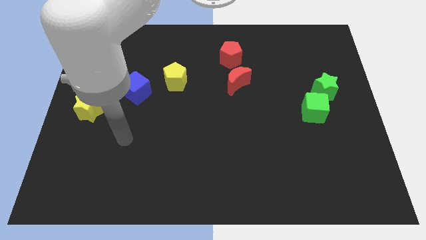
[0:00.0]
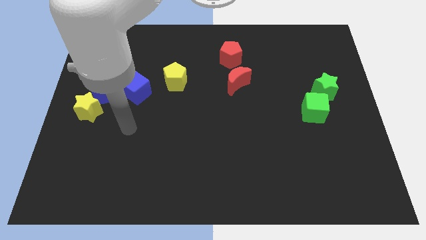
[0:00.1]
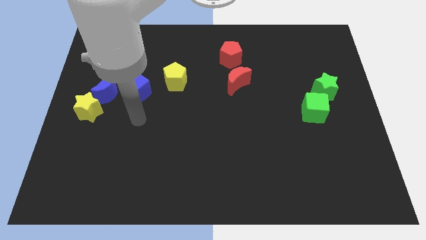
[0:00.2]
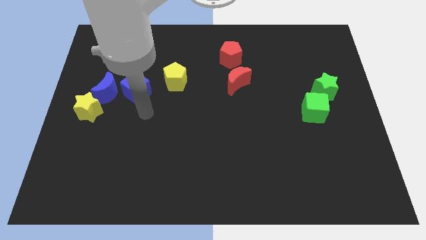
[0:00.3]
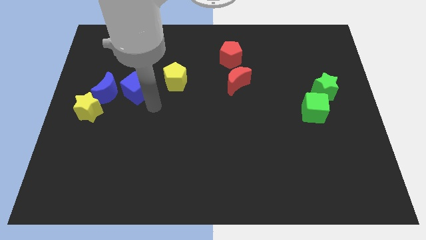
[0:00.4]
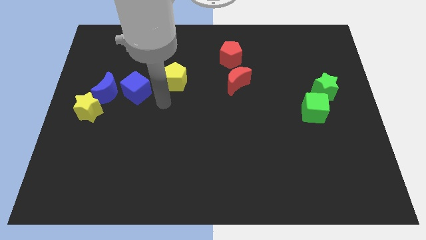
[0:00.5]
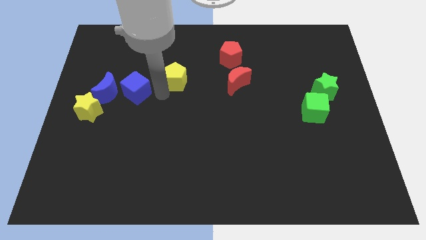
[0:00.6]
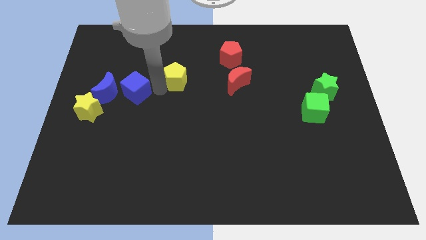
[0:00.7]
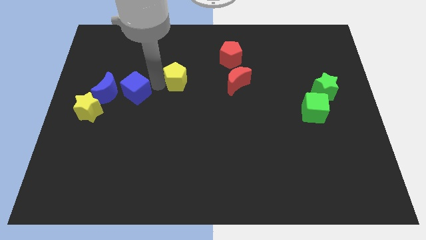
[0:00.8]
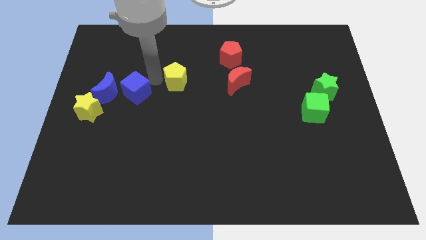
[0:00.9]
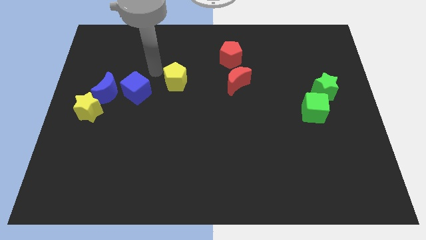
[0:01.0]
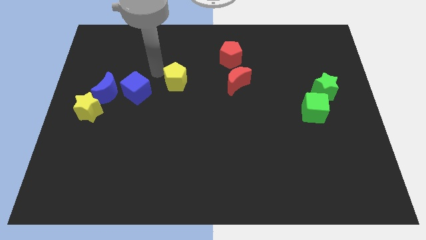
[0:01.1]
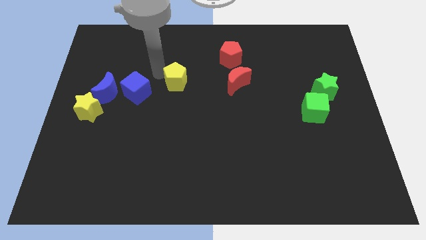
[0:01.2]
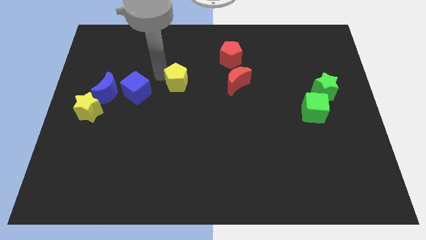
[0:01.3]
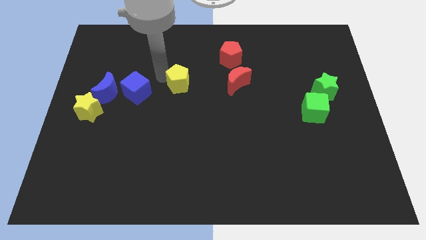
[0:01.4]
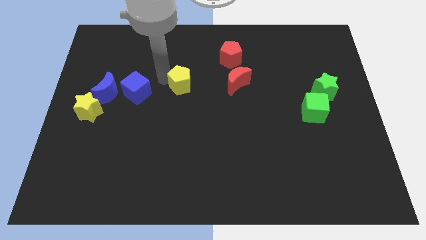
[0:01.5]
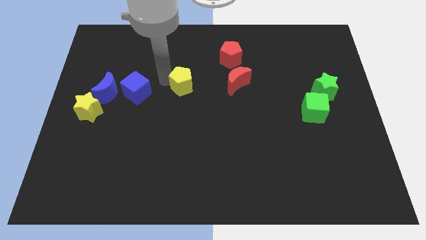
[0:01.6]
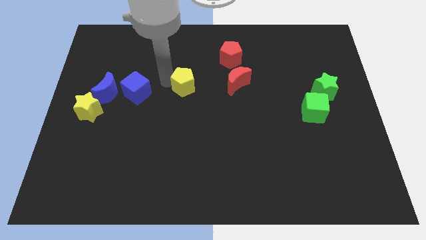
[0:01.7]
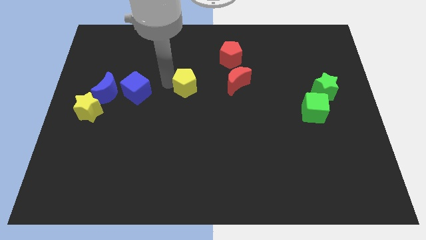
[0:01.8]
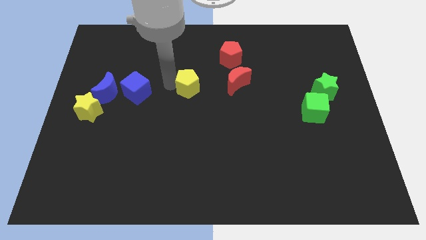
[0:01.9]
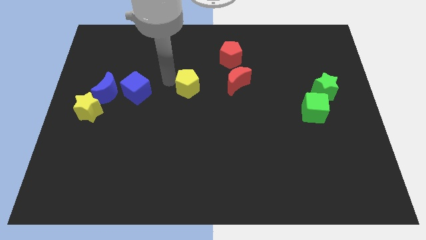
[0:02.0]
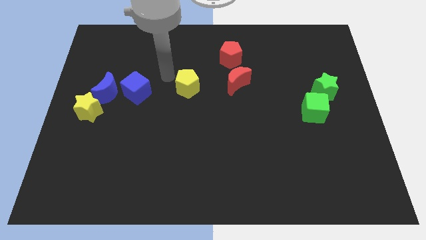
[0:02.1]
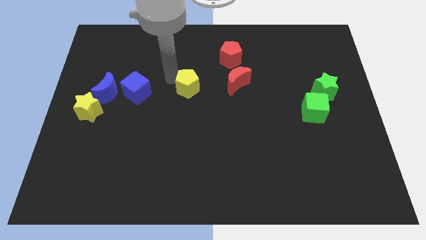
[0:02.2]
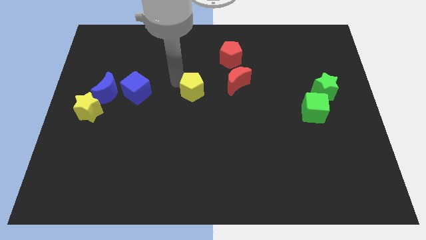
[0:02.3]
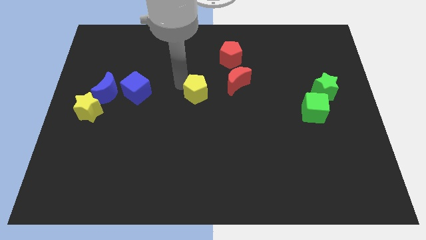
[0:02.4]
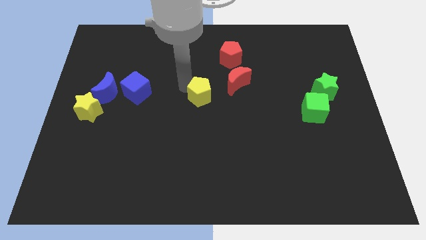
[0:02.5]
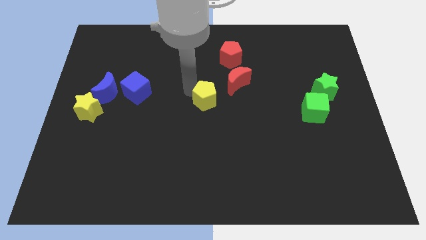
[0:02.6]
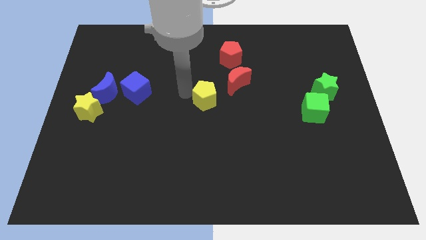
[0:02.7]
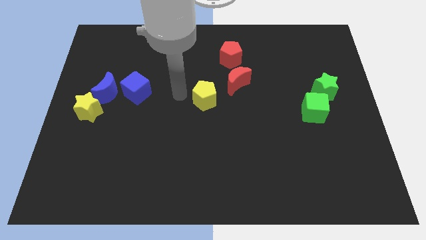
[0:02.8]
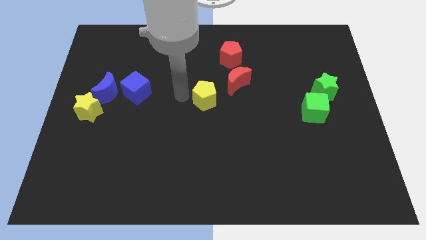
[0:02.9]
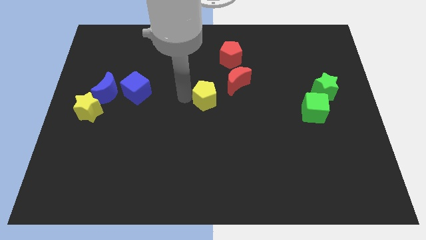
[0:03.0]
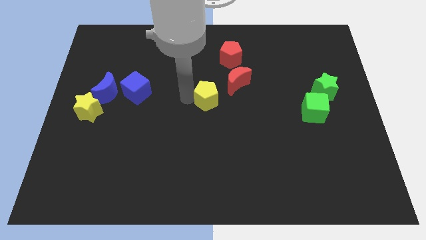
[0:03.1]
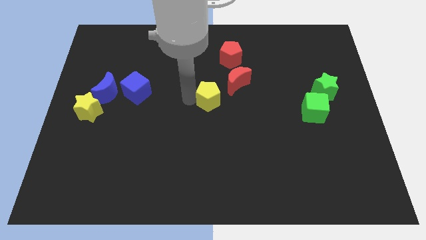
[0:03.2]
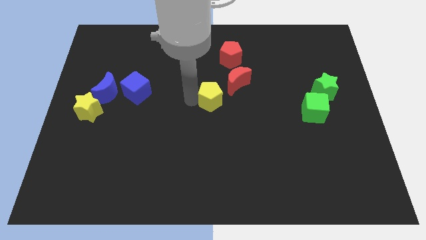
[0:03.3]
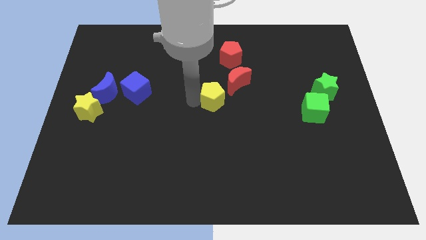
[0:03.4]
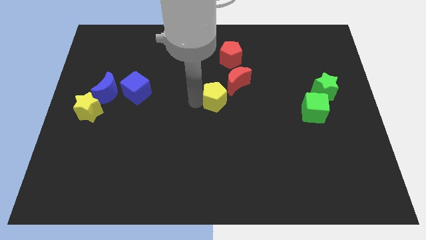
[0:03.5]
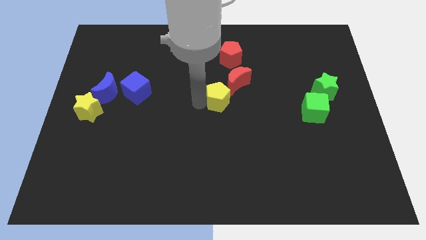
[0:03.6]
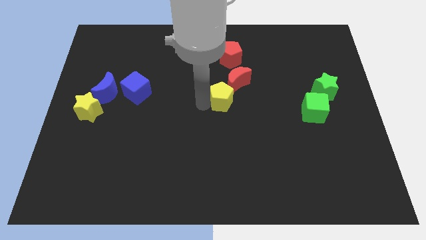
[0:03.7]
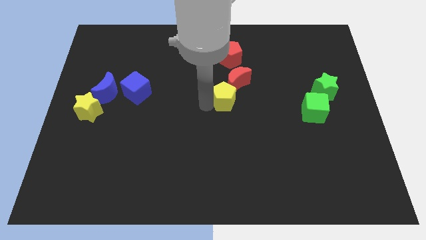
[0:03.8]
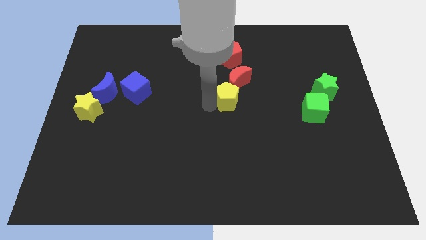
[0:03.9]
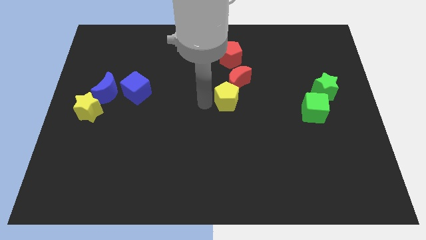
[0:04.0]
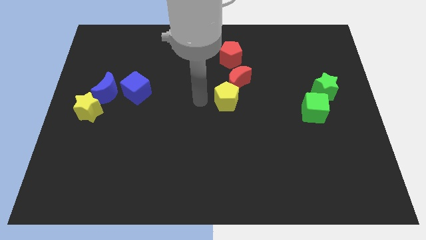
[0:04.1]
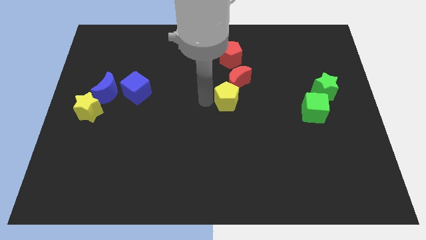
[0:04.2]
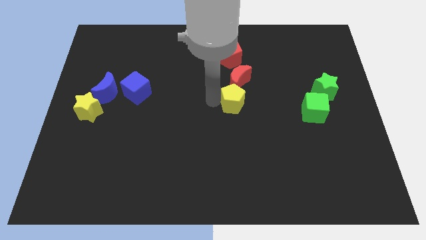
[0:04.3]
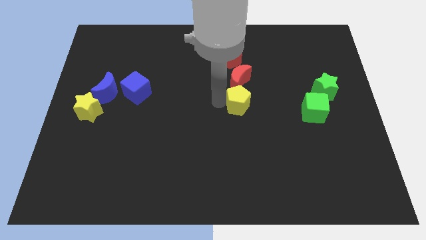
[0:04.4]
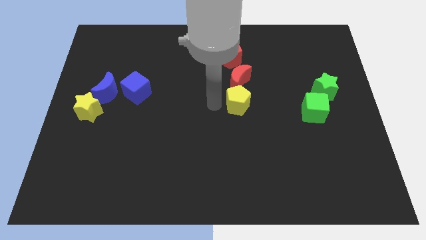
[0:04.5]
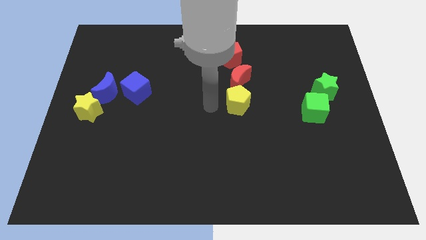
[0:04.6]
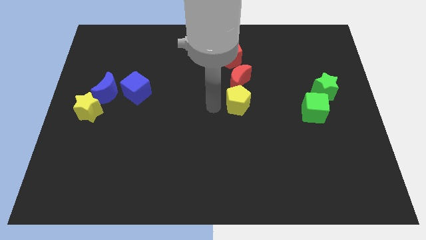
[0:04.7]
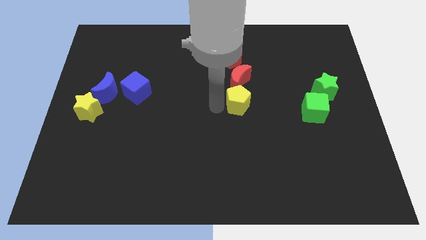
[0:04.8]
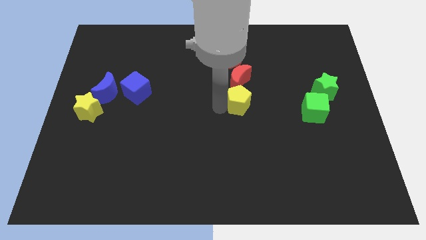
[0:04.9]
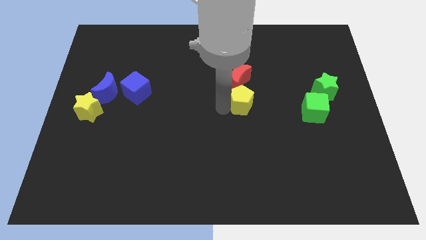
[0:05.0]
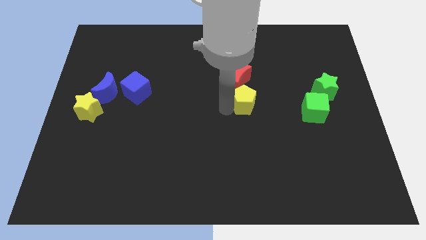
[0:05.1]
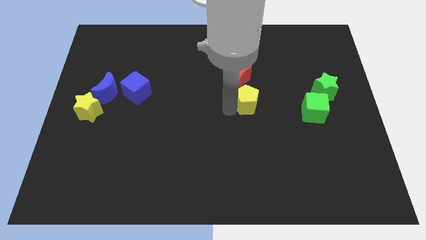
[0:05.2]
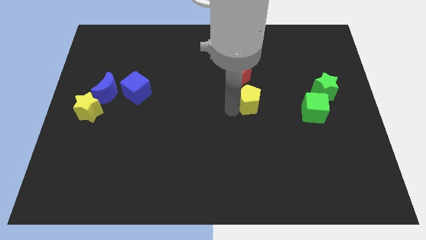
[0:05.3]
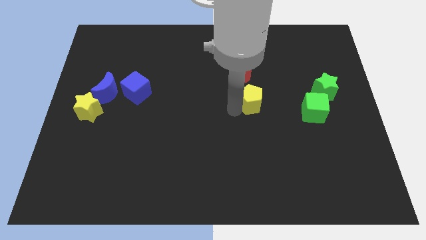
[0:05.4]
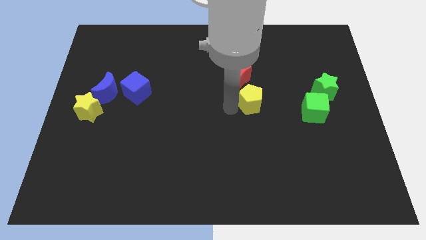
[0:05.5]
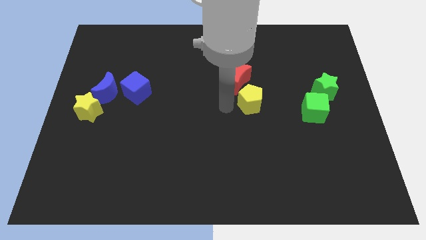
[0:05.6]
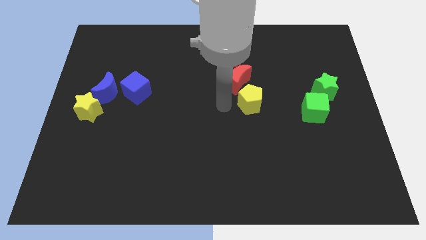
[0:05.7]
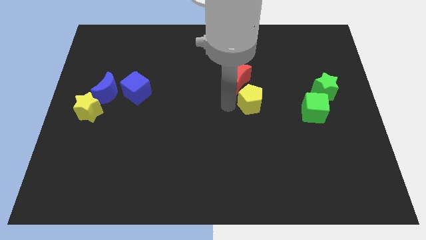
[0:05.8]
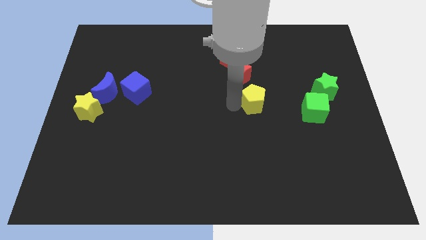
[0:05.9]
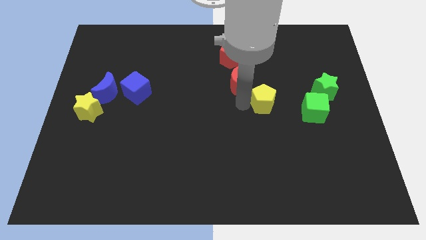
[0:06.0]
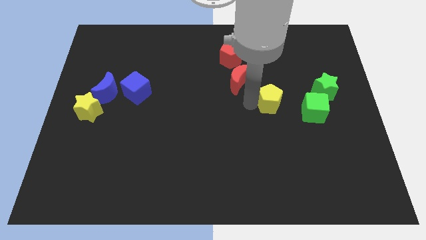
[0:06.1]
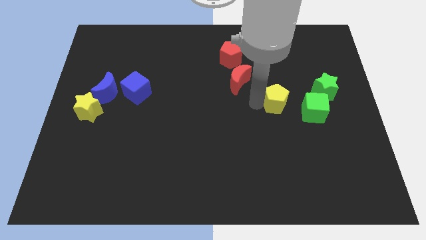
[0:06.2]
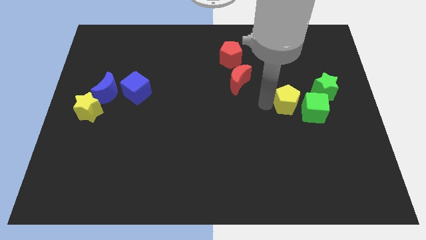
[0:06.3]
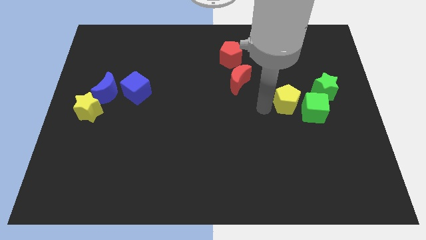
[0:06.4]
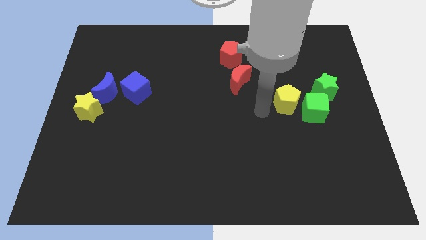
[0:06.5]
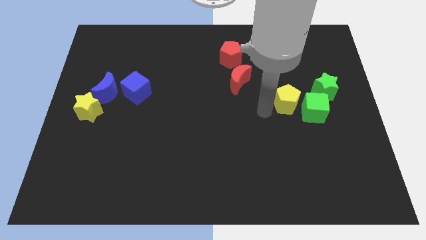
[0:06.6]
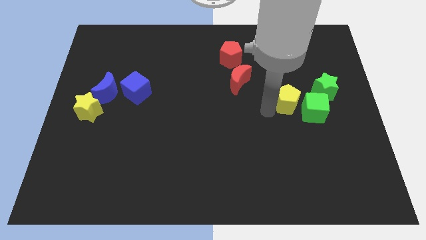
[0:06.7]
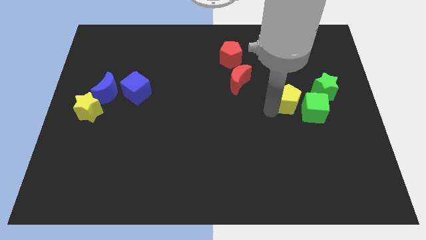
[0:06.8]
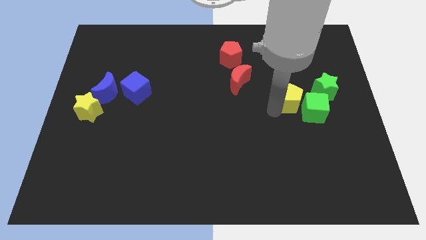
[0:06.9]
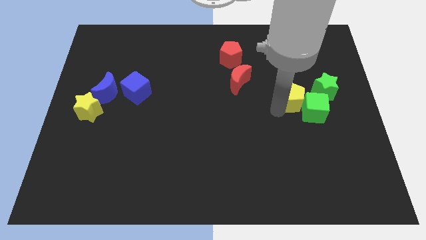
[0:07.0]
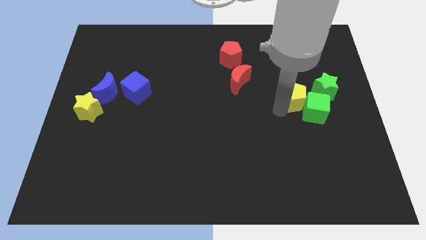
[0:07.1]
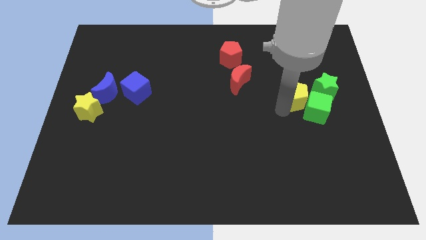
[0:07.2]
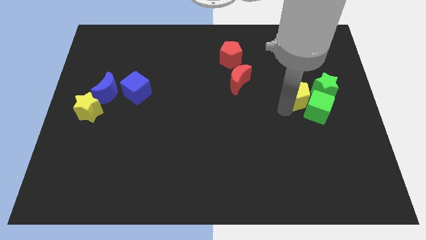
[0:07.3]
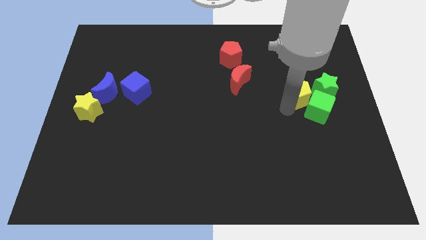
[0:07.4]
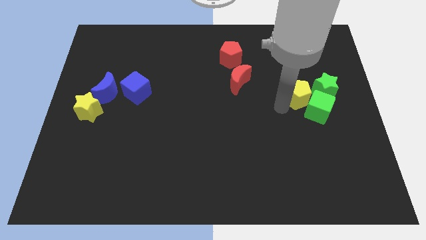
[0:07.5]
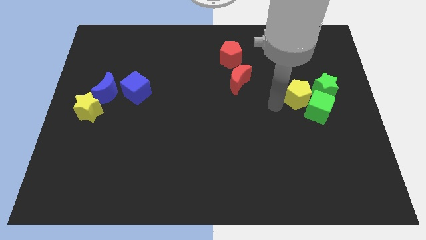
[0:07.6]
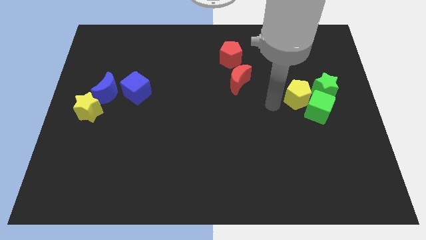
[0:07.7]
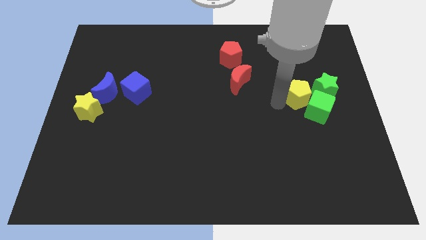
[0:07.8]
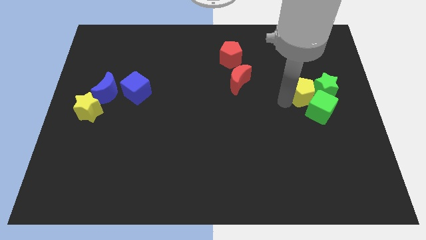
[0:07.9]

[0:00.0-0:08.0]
move the yellow pentagon to the green star
